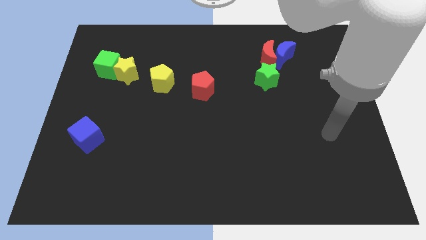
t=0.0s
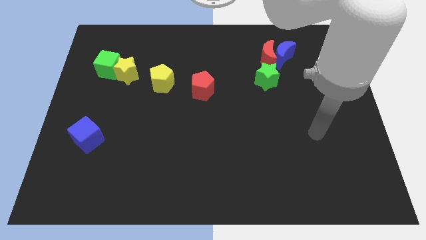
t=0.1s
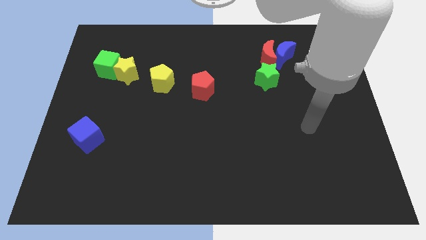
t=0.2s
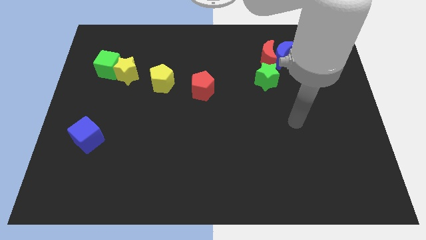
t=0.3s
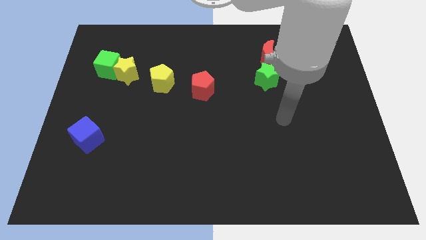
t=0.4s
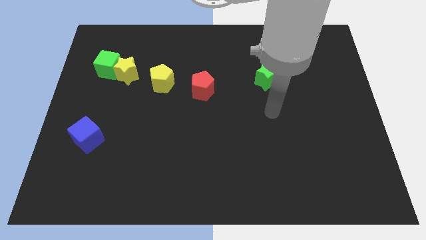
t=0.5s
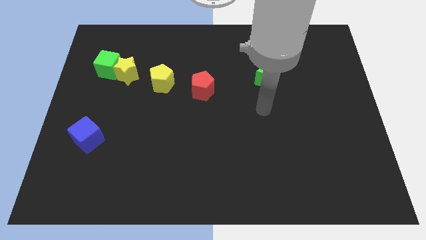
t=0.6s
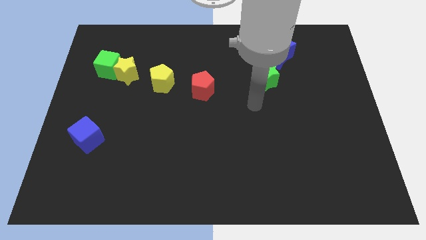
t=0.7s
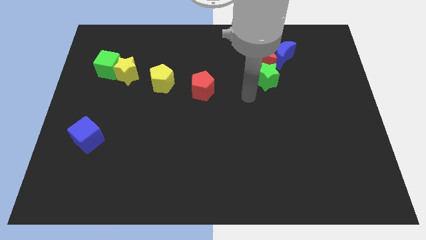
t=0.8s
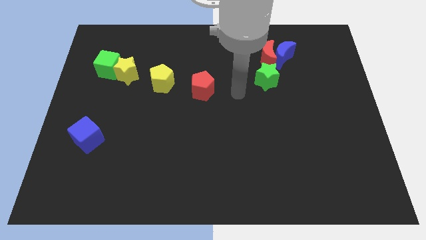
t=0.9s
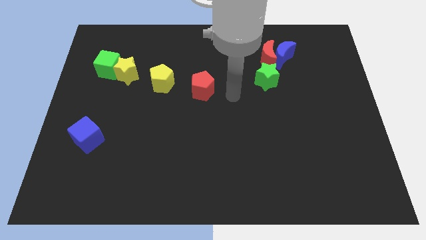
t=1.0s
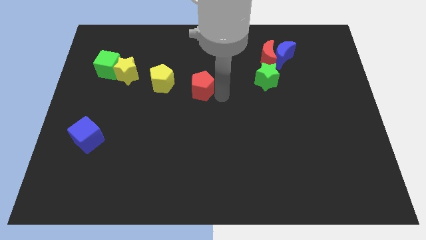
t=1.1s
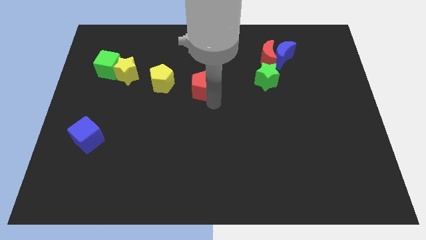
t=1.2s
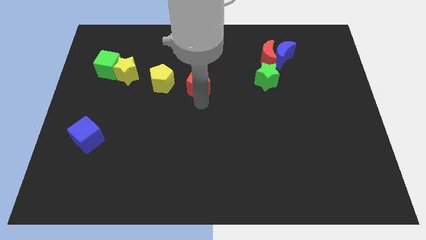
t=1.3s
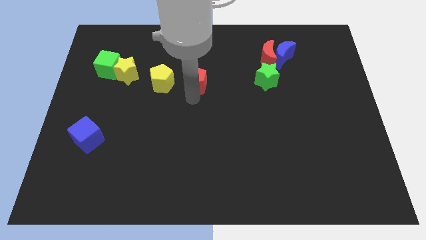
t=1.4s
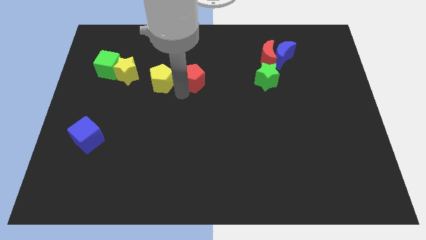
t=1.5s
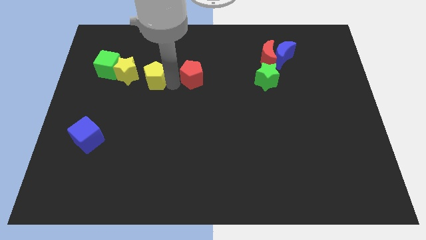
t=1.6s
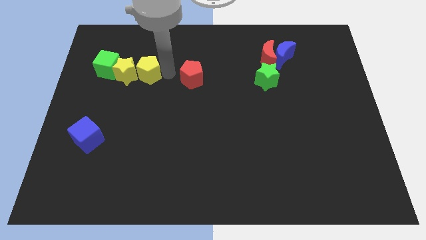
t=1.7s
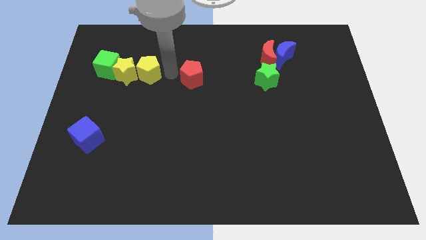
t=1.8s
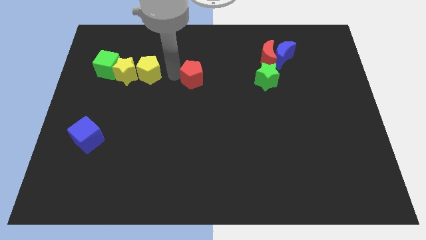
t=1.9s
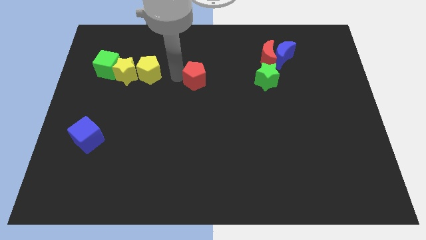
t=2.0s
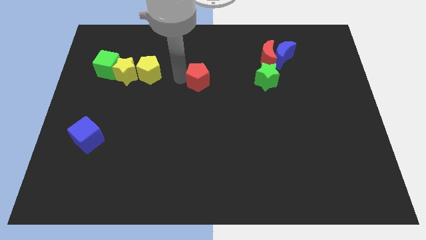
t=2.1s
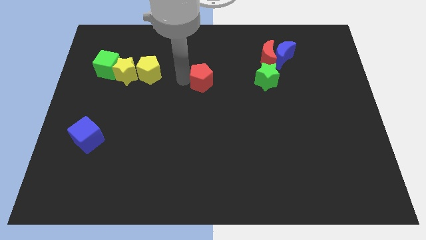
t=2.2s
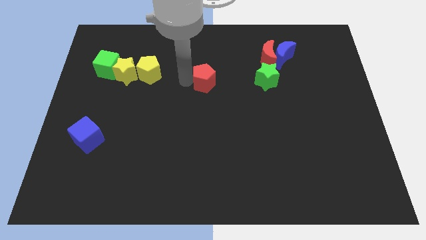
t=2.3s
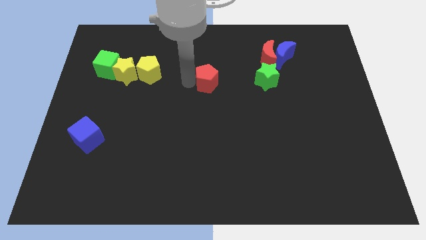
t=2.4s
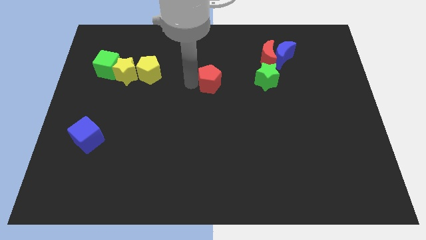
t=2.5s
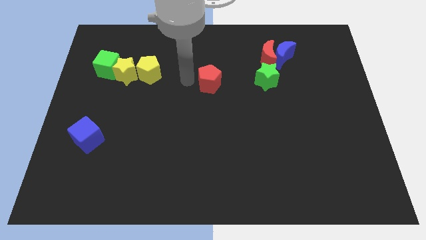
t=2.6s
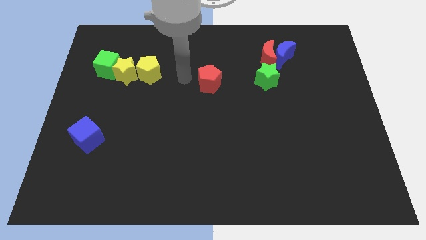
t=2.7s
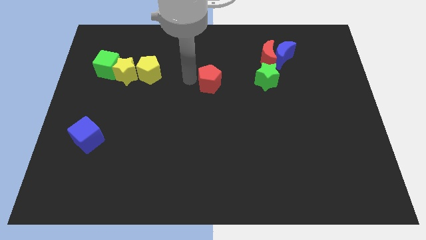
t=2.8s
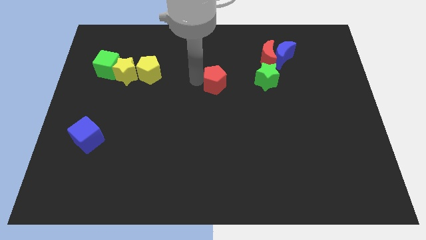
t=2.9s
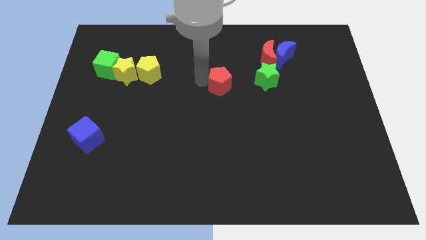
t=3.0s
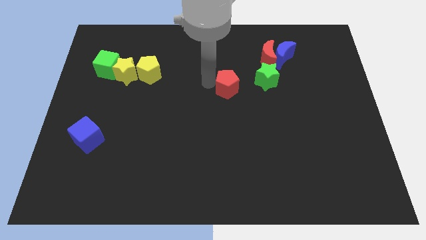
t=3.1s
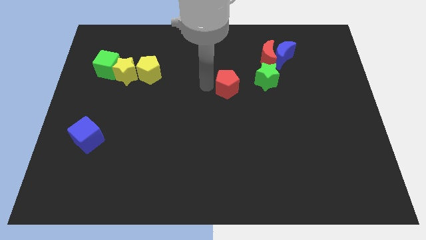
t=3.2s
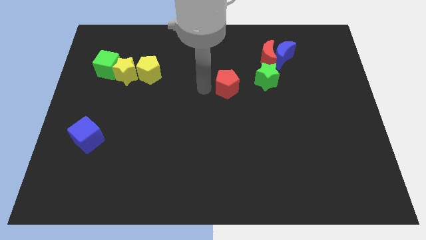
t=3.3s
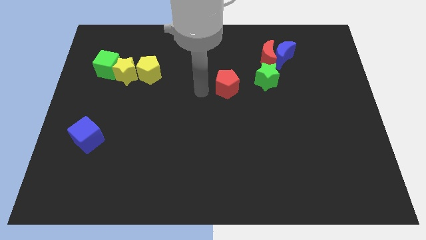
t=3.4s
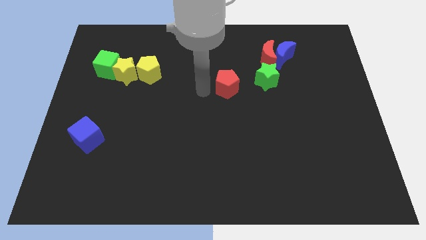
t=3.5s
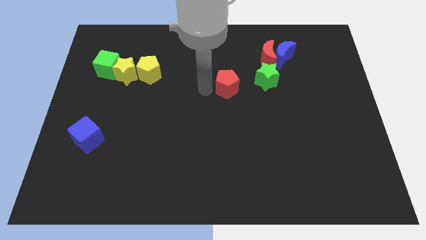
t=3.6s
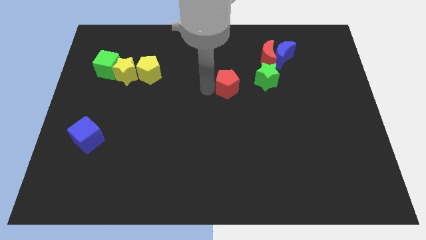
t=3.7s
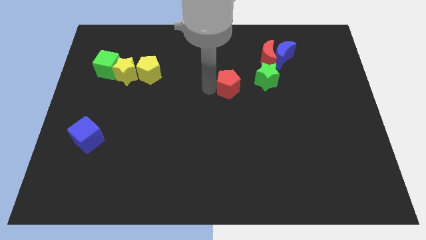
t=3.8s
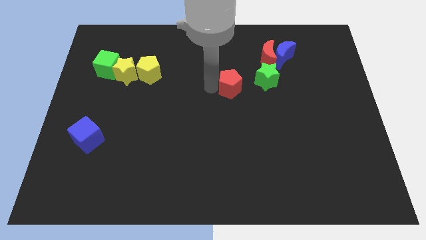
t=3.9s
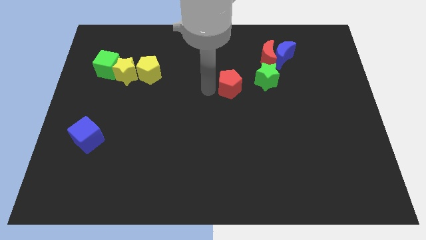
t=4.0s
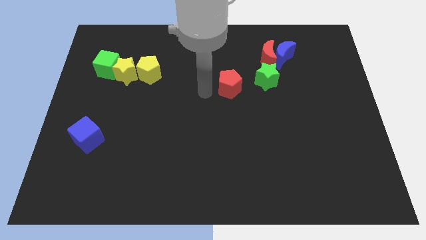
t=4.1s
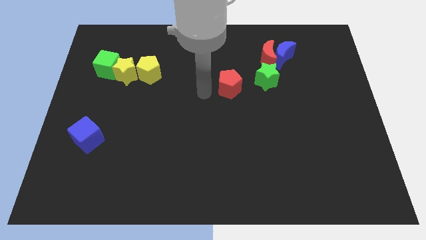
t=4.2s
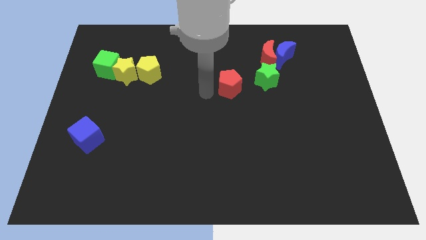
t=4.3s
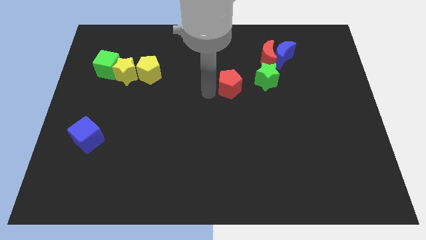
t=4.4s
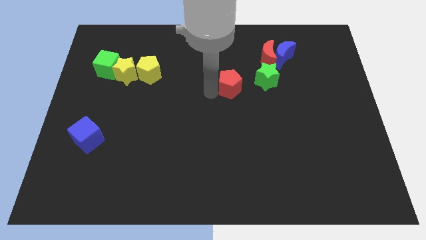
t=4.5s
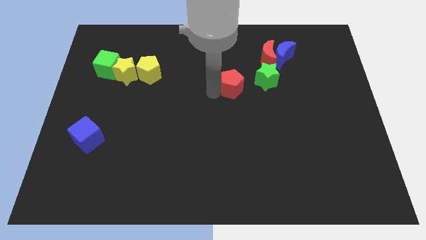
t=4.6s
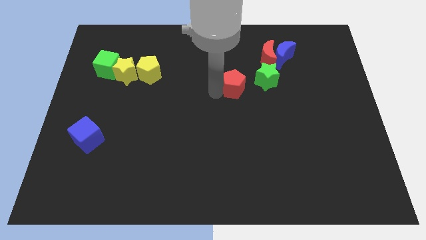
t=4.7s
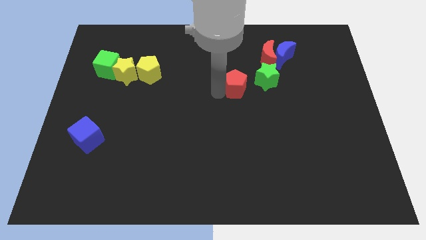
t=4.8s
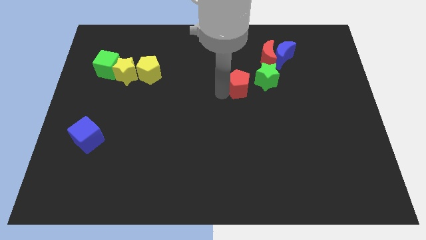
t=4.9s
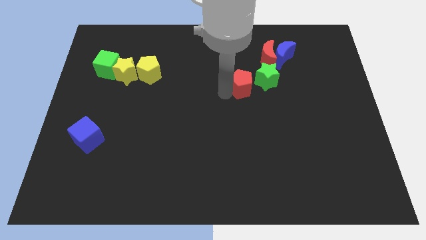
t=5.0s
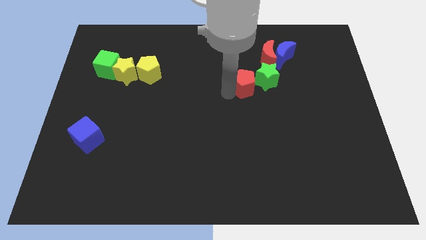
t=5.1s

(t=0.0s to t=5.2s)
move the red pentagon close to the green star

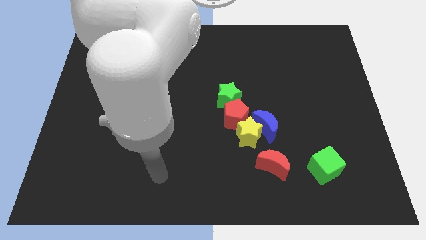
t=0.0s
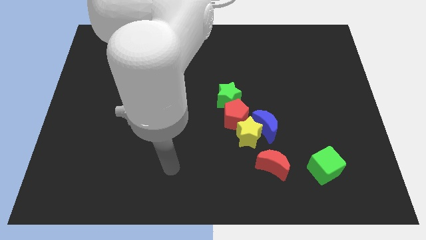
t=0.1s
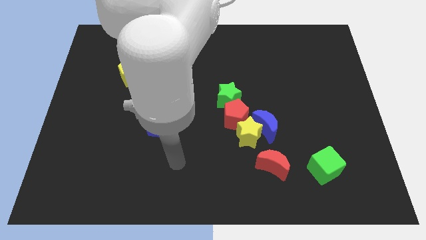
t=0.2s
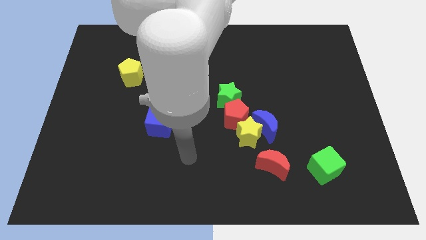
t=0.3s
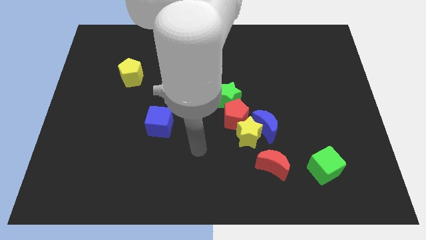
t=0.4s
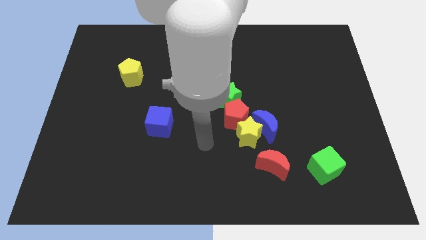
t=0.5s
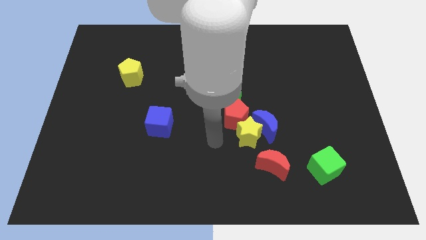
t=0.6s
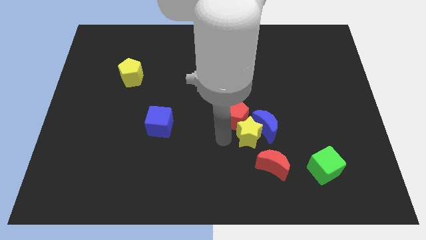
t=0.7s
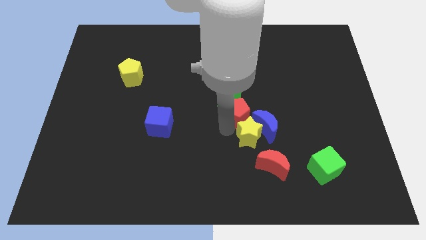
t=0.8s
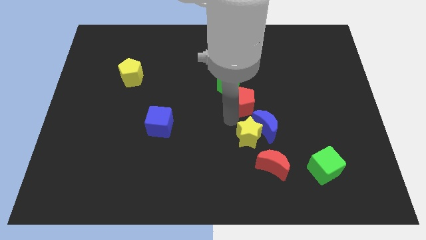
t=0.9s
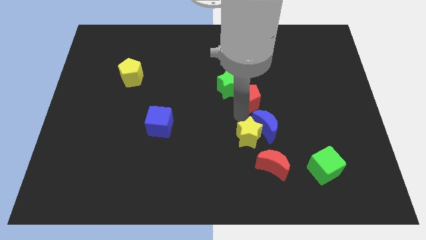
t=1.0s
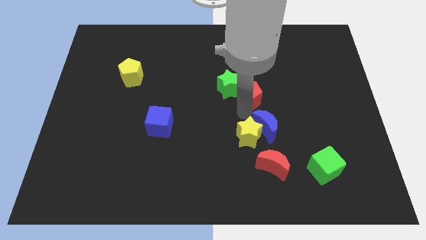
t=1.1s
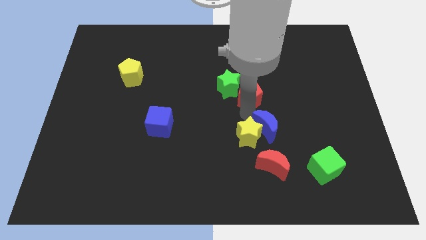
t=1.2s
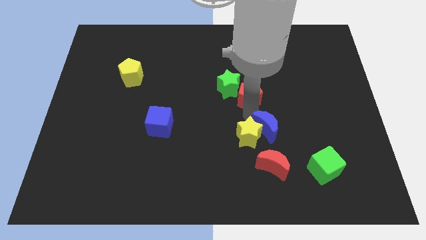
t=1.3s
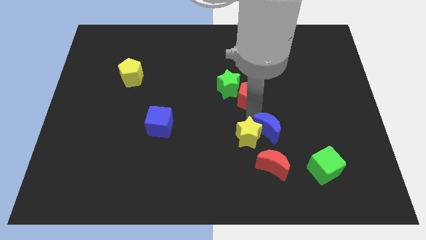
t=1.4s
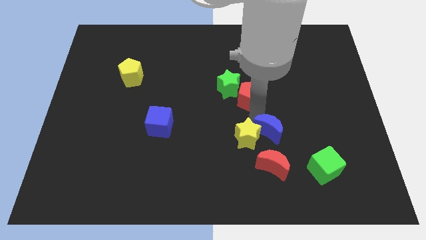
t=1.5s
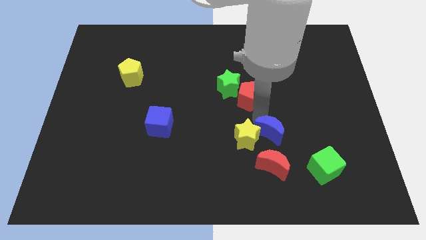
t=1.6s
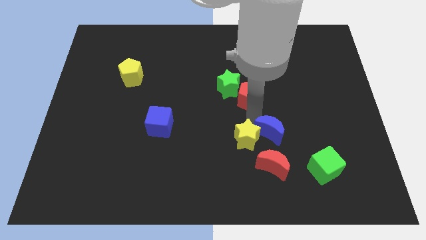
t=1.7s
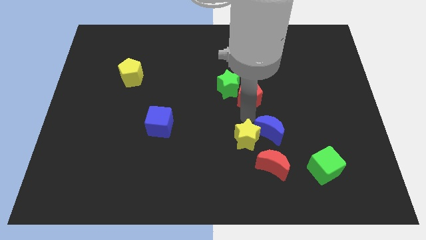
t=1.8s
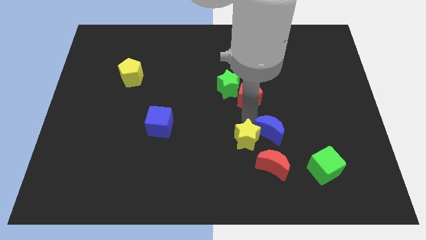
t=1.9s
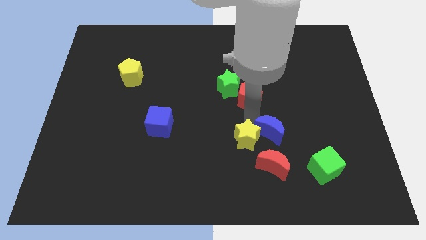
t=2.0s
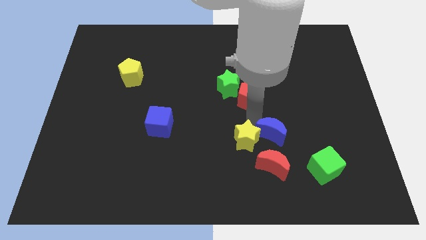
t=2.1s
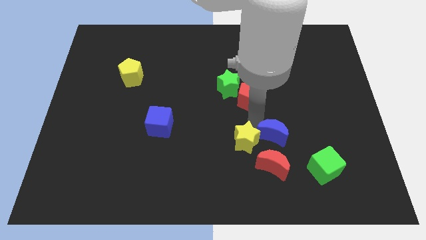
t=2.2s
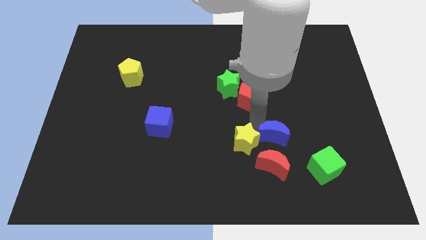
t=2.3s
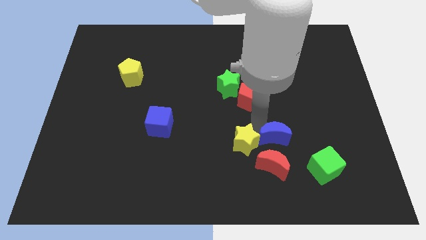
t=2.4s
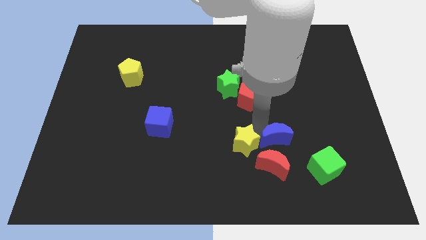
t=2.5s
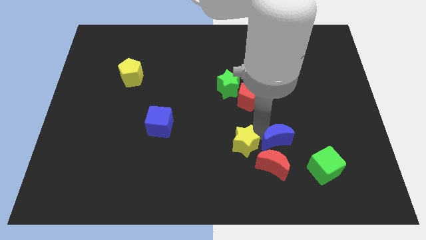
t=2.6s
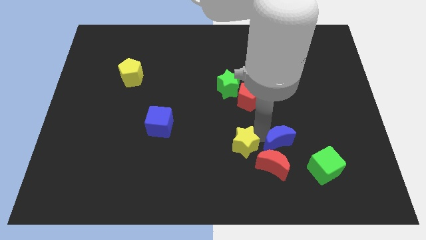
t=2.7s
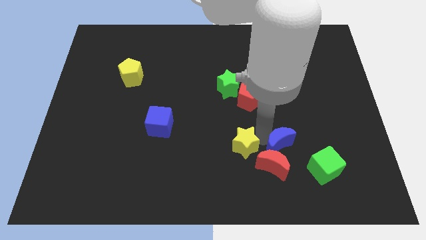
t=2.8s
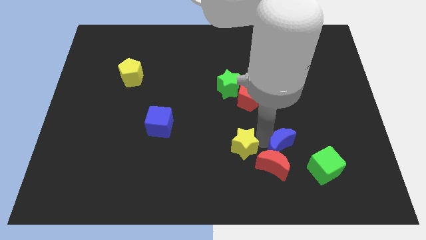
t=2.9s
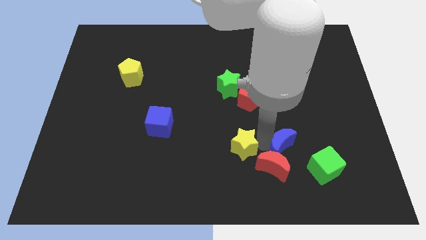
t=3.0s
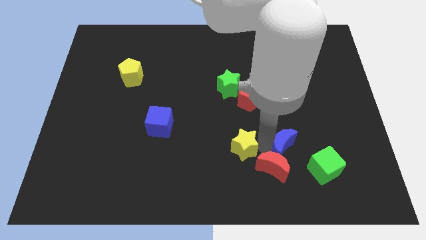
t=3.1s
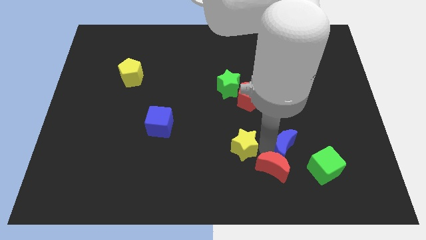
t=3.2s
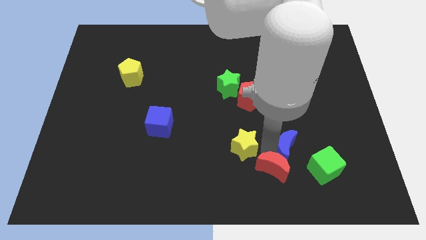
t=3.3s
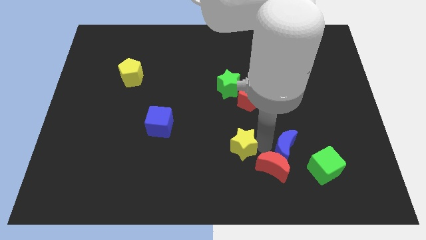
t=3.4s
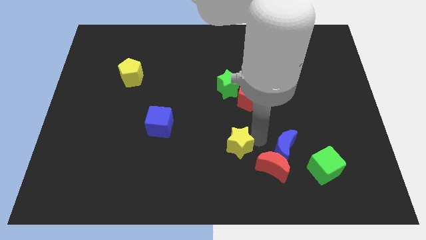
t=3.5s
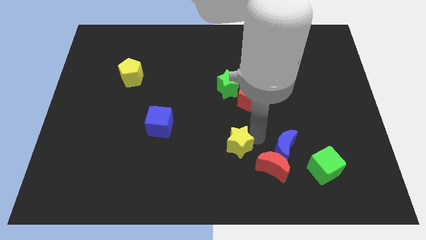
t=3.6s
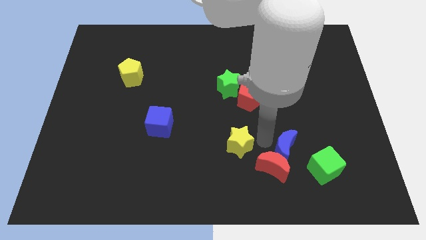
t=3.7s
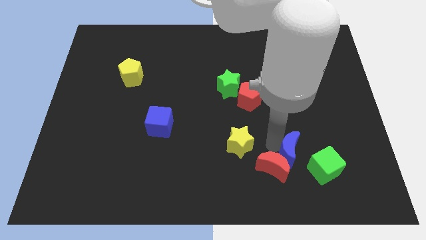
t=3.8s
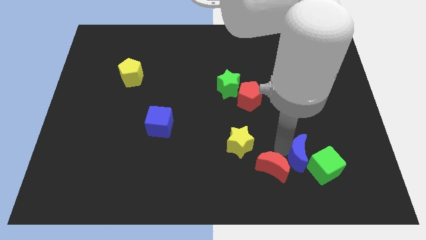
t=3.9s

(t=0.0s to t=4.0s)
put the blue moon close to the green cube
